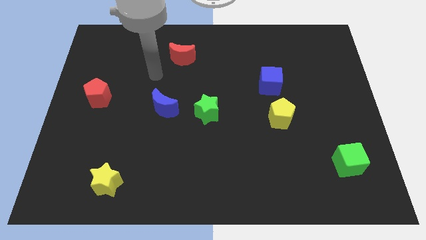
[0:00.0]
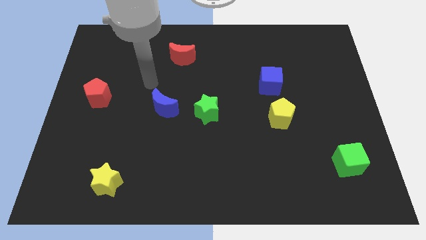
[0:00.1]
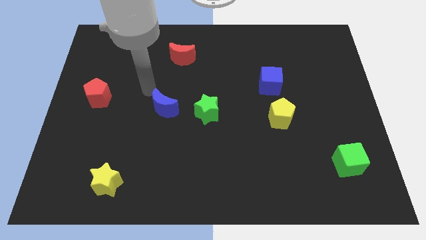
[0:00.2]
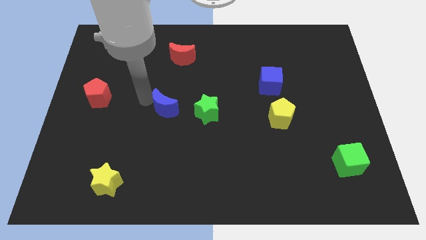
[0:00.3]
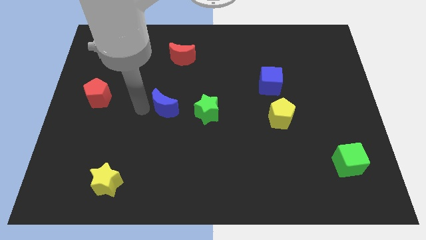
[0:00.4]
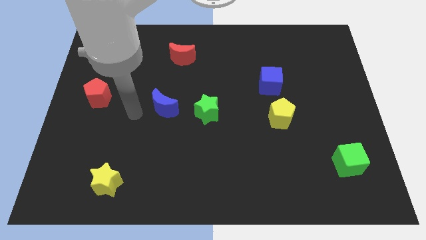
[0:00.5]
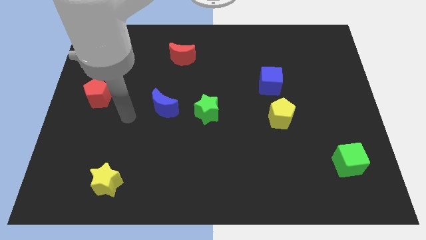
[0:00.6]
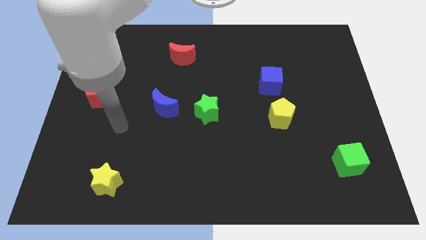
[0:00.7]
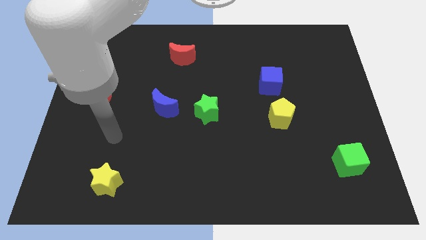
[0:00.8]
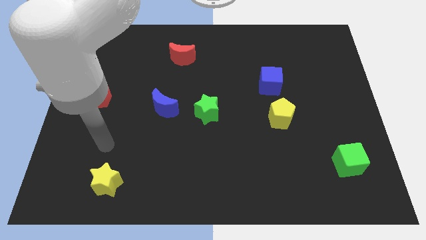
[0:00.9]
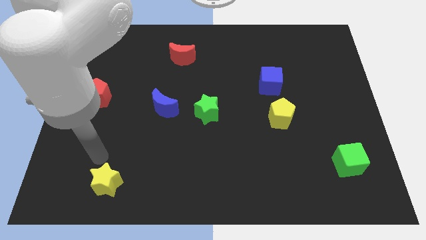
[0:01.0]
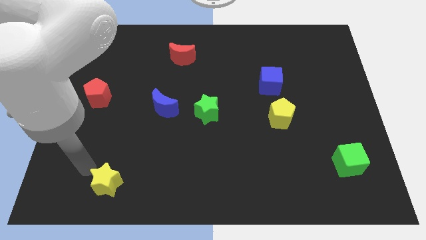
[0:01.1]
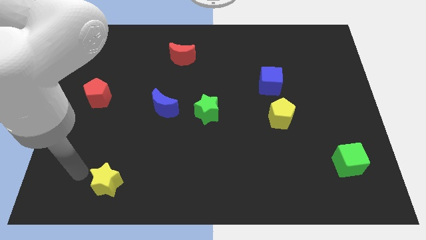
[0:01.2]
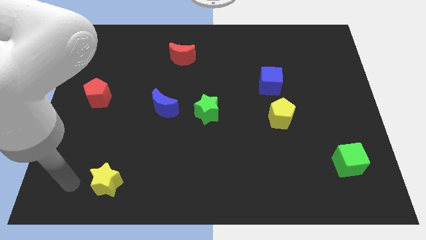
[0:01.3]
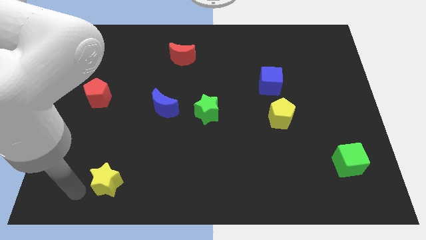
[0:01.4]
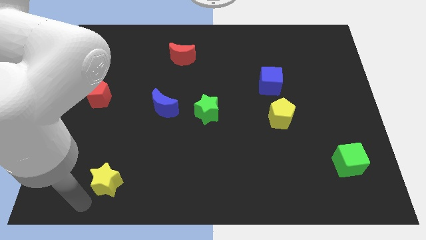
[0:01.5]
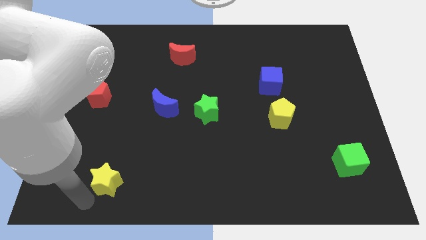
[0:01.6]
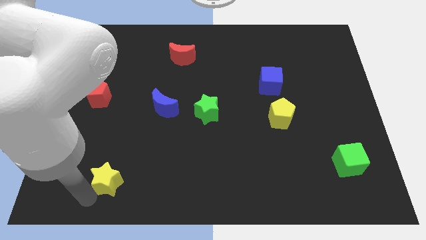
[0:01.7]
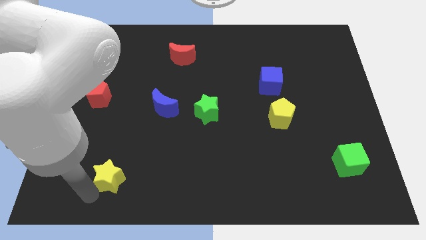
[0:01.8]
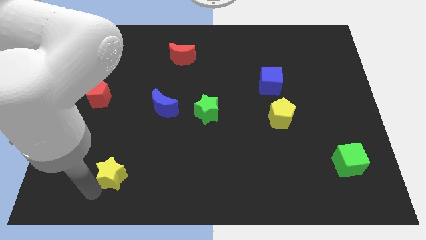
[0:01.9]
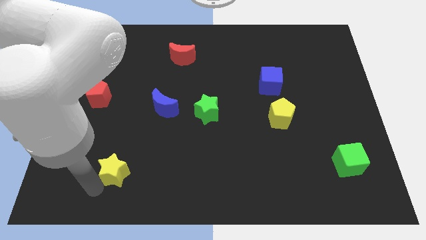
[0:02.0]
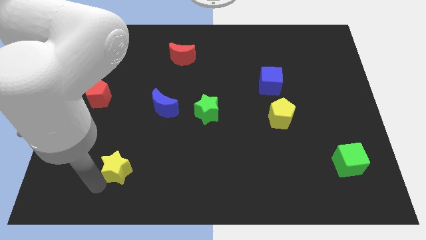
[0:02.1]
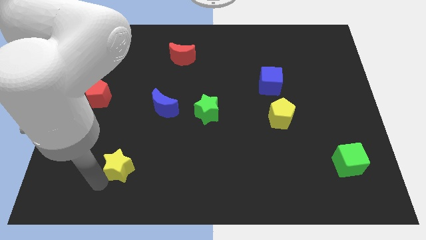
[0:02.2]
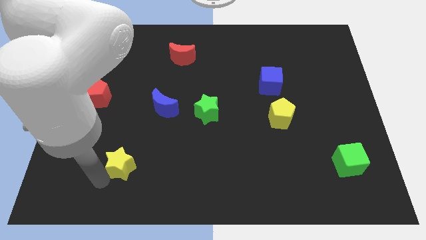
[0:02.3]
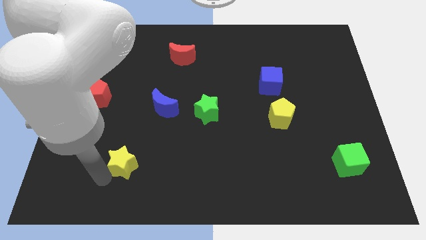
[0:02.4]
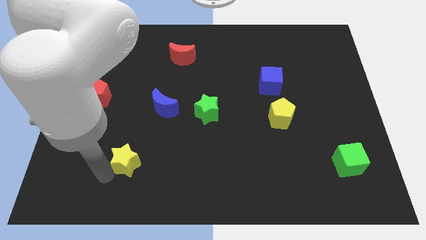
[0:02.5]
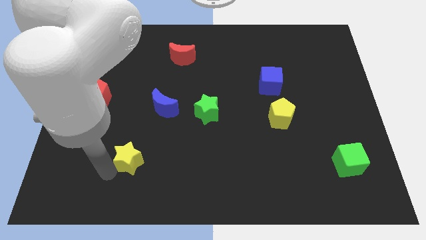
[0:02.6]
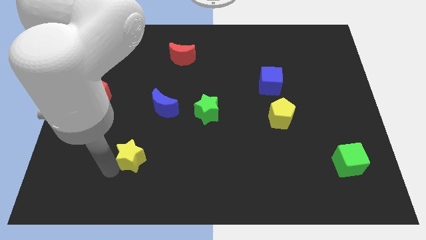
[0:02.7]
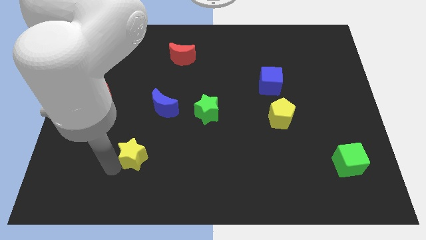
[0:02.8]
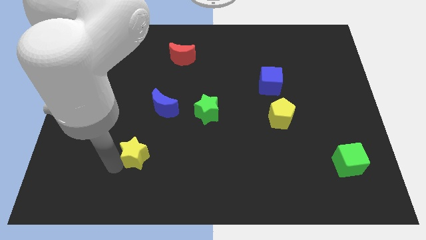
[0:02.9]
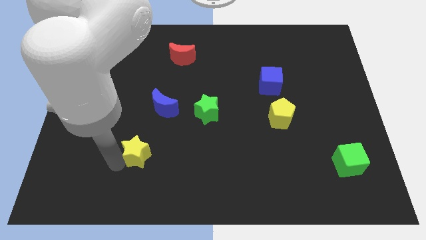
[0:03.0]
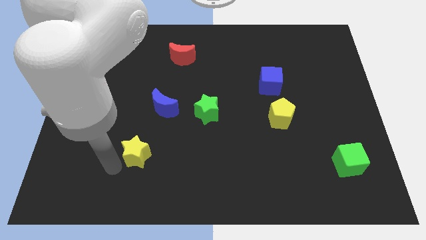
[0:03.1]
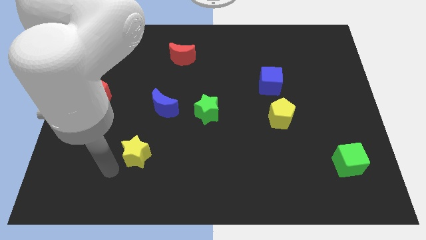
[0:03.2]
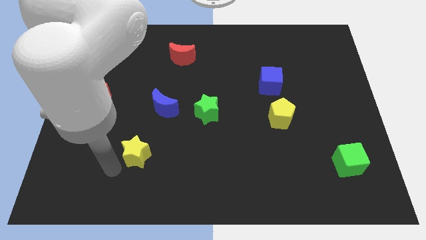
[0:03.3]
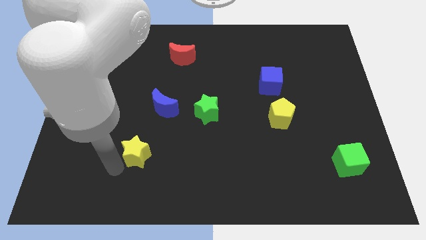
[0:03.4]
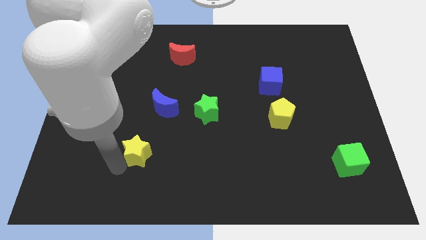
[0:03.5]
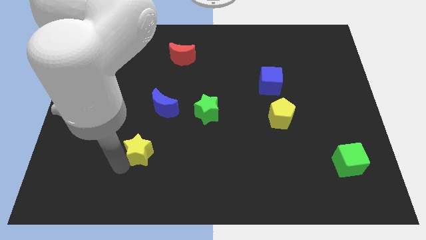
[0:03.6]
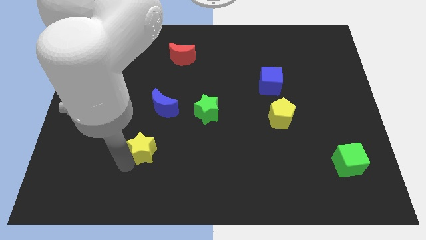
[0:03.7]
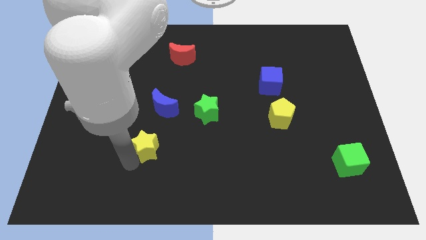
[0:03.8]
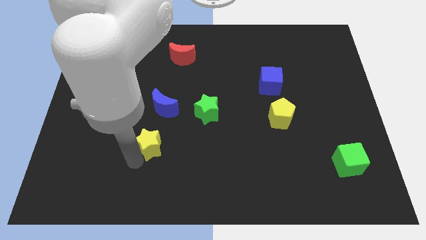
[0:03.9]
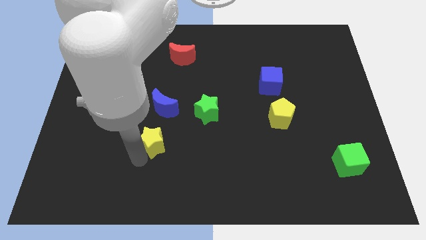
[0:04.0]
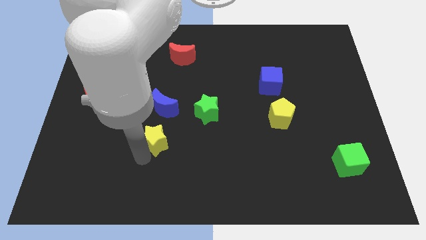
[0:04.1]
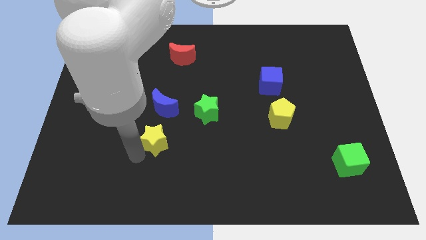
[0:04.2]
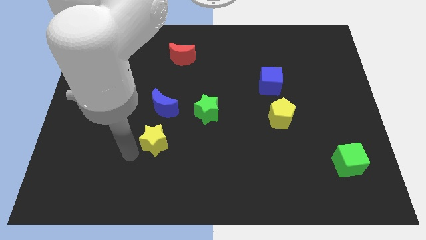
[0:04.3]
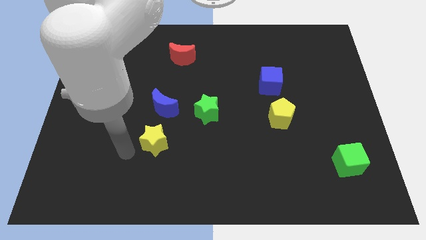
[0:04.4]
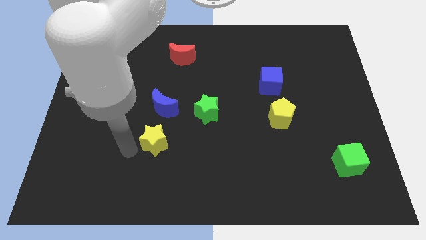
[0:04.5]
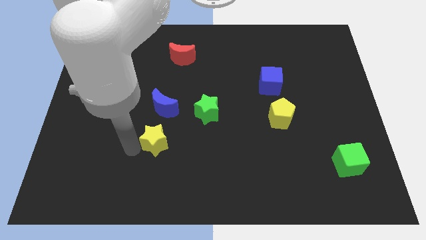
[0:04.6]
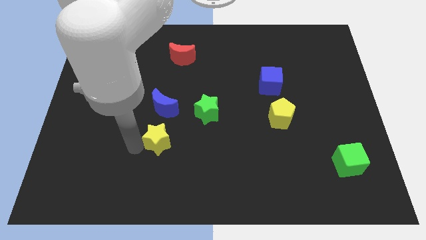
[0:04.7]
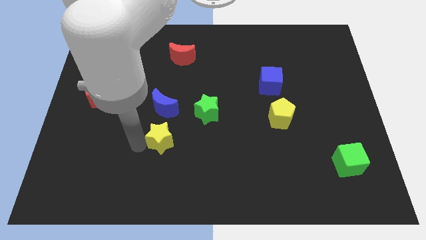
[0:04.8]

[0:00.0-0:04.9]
move the yellow star to the bottom left side of the green star

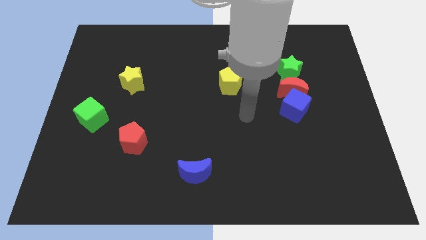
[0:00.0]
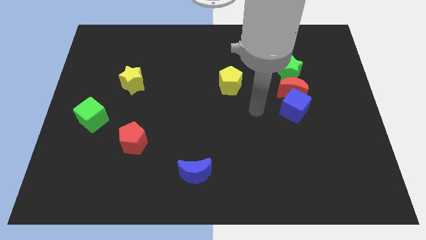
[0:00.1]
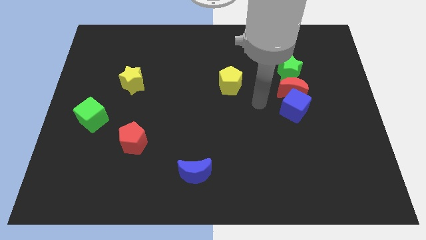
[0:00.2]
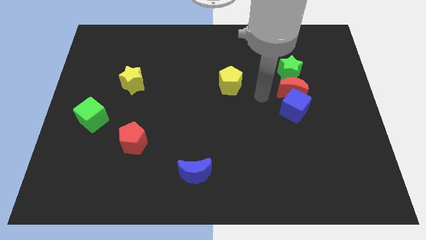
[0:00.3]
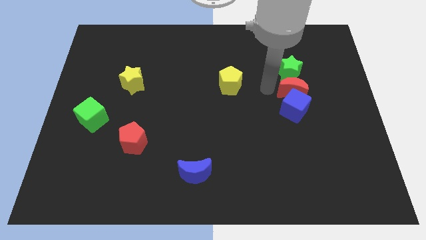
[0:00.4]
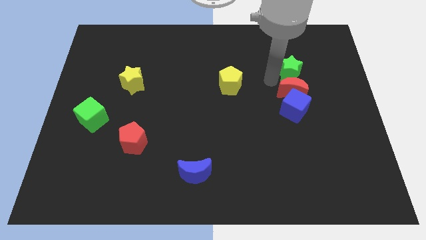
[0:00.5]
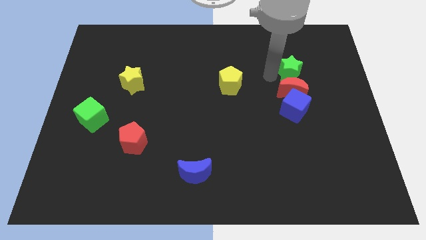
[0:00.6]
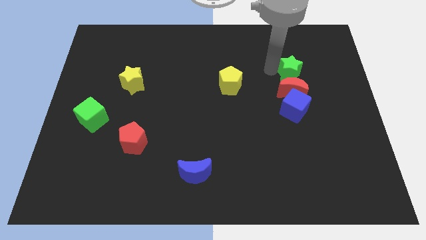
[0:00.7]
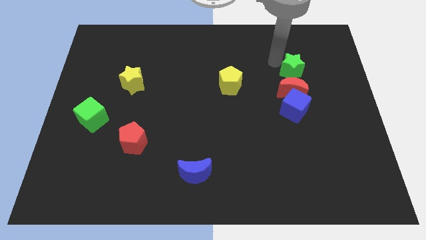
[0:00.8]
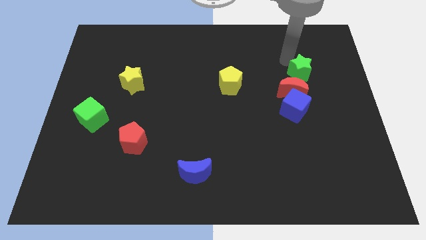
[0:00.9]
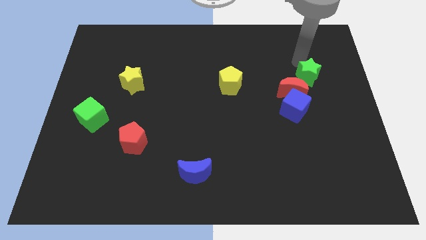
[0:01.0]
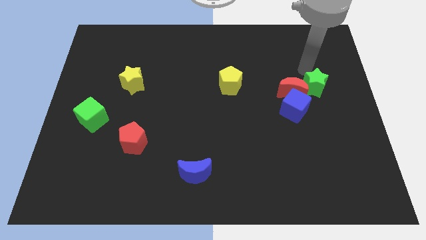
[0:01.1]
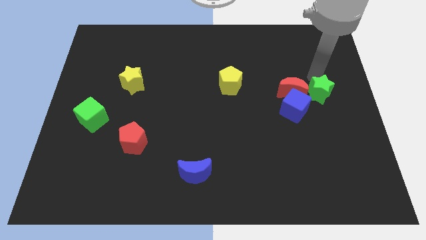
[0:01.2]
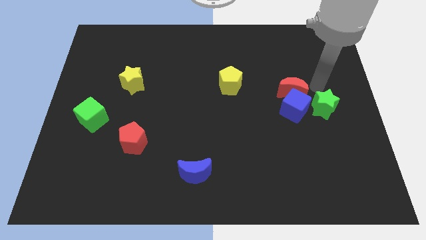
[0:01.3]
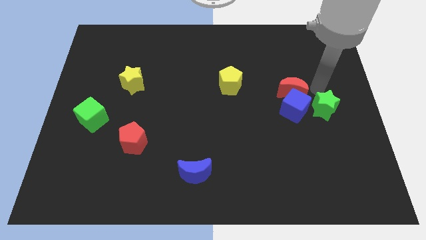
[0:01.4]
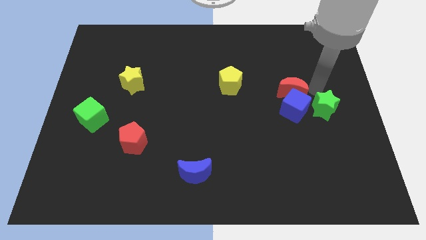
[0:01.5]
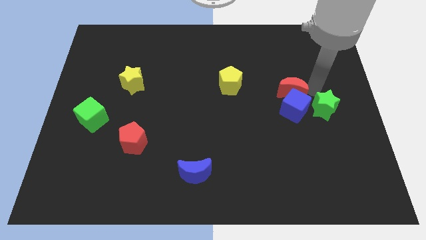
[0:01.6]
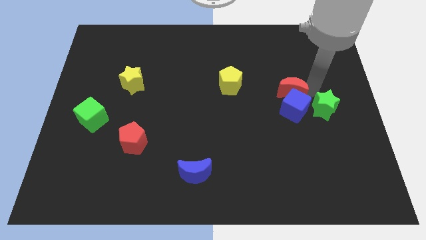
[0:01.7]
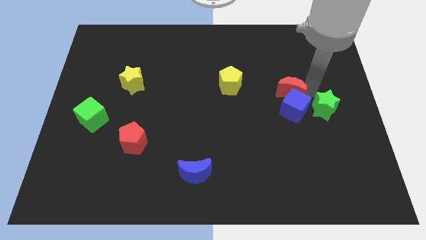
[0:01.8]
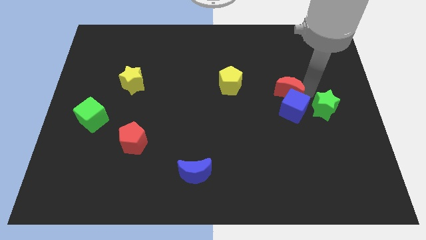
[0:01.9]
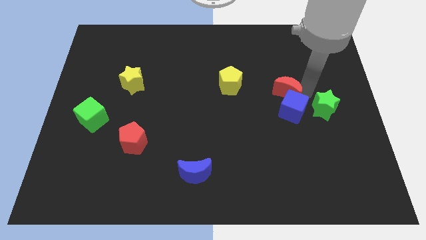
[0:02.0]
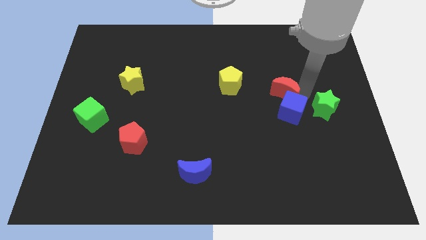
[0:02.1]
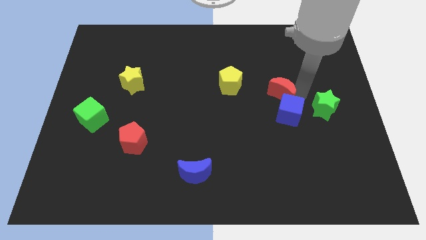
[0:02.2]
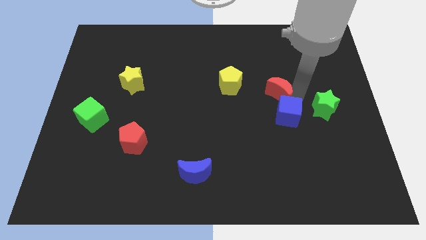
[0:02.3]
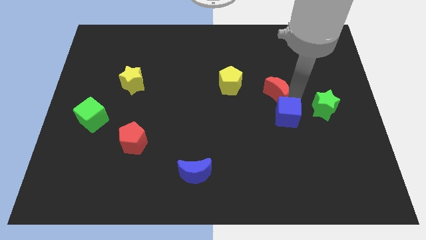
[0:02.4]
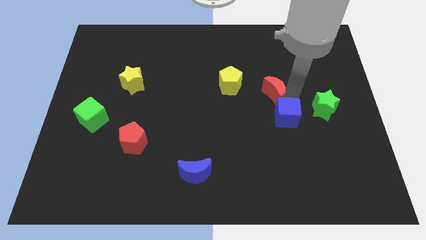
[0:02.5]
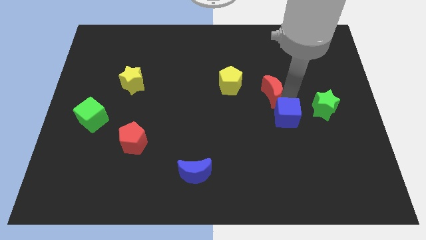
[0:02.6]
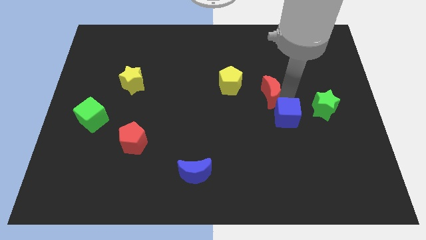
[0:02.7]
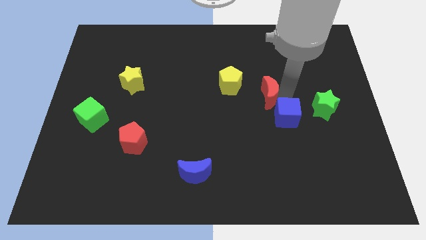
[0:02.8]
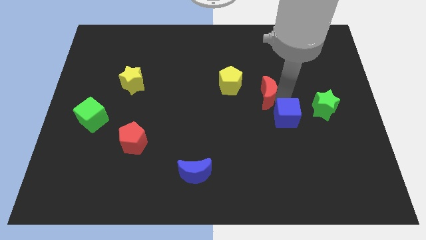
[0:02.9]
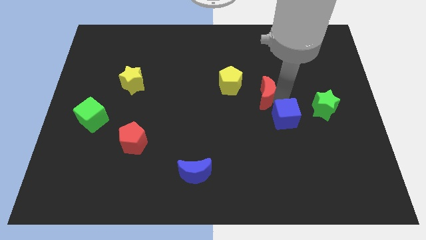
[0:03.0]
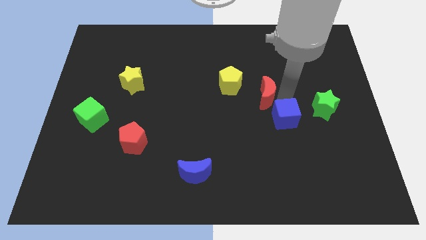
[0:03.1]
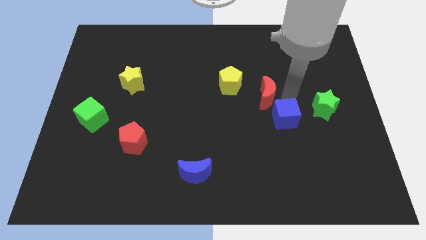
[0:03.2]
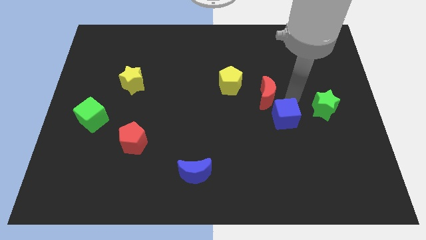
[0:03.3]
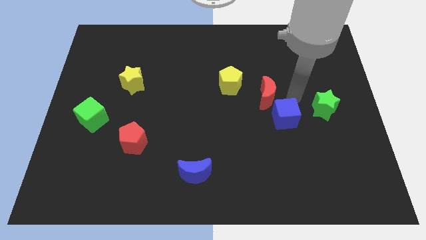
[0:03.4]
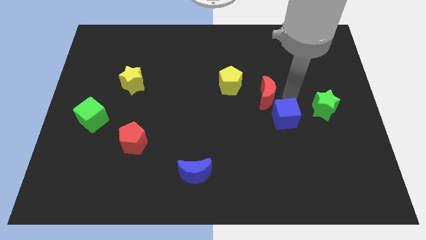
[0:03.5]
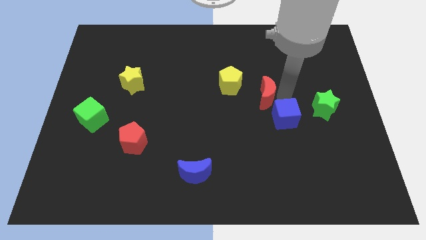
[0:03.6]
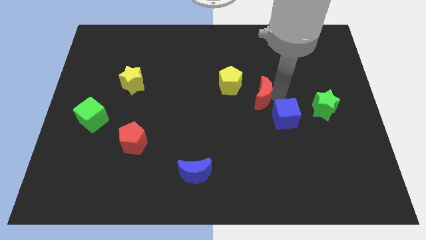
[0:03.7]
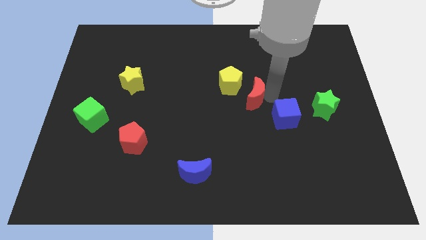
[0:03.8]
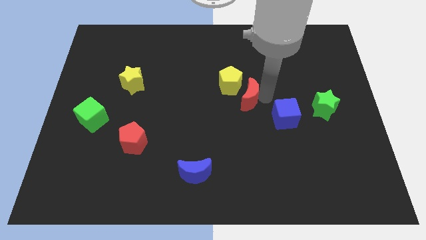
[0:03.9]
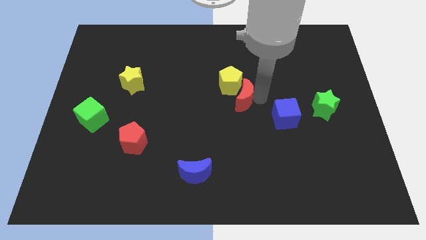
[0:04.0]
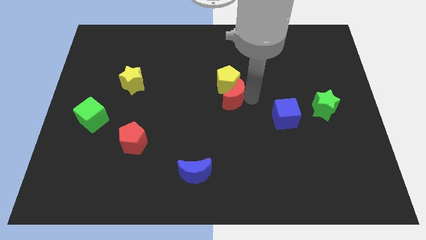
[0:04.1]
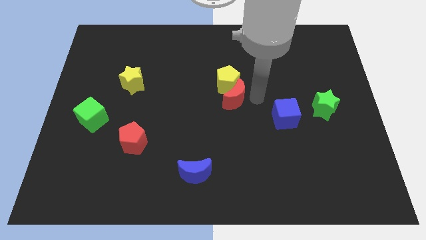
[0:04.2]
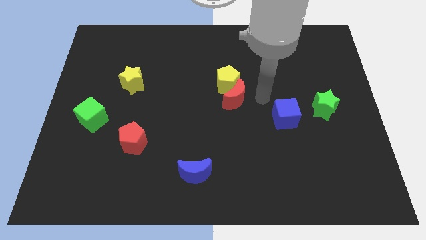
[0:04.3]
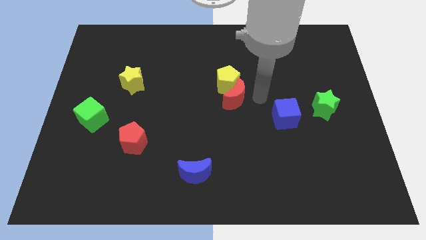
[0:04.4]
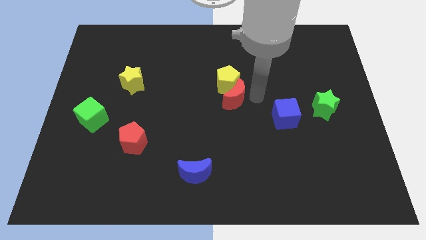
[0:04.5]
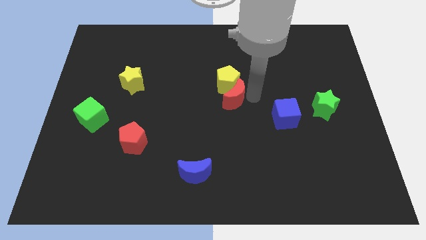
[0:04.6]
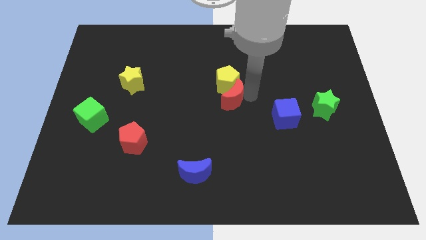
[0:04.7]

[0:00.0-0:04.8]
push the red moon to the bottom left of the yellow pentagon
